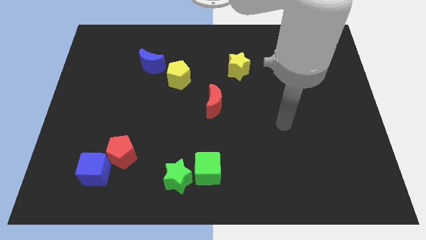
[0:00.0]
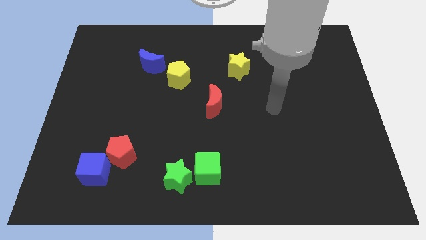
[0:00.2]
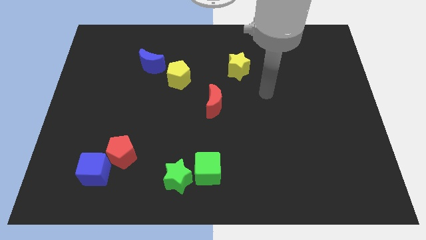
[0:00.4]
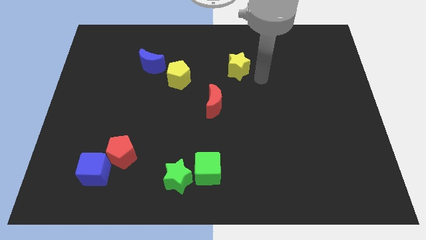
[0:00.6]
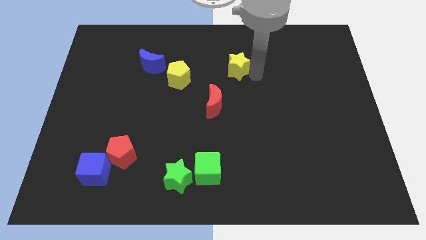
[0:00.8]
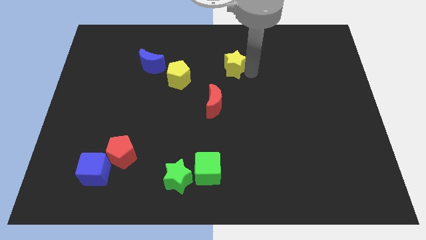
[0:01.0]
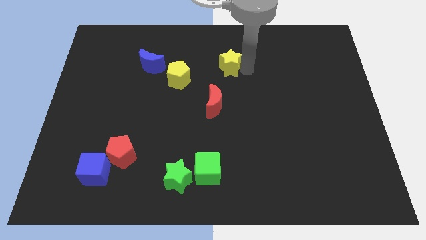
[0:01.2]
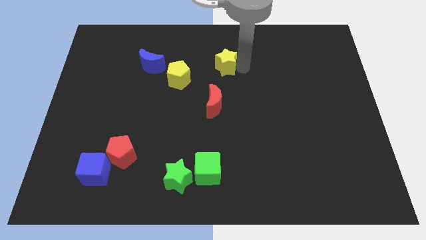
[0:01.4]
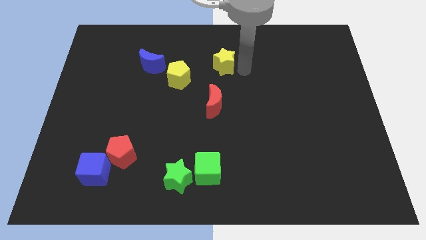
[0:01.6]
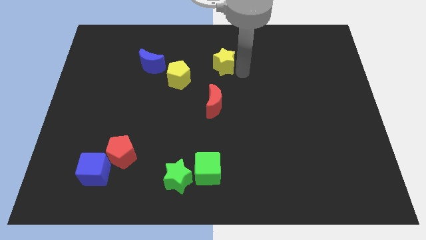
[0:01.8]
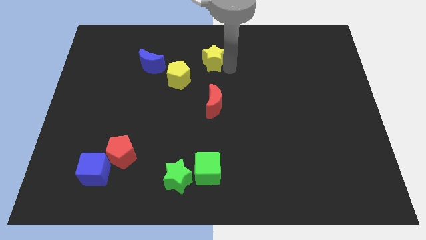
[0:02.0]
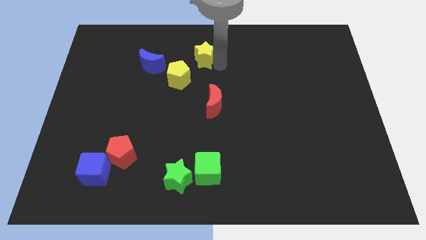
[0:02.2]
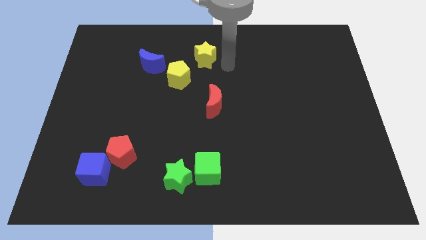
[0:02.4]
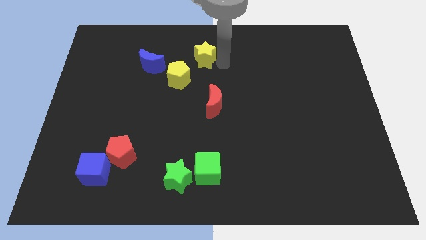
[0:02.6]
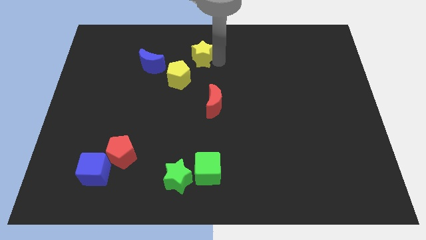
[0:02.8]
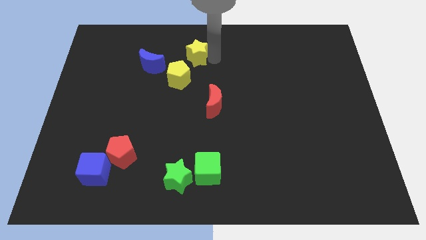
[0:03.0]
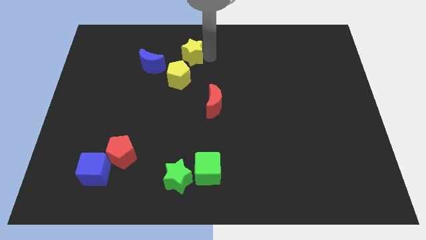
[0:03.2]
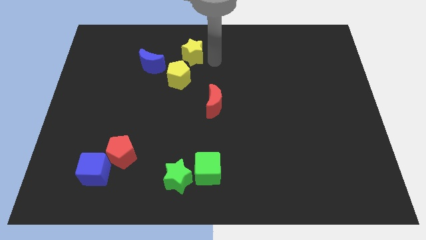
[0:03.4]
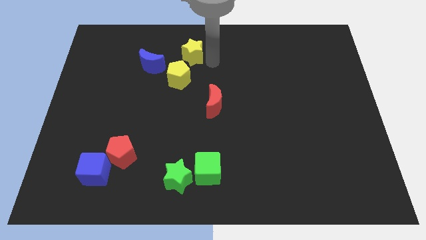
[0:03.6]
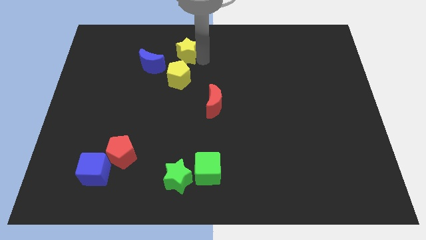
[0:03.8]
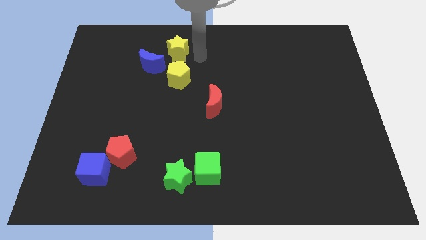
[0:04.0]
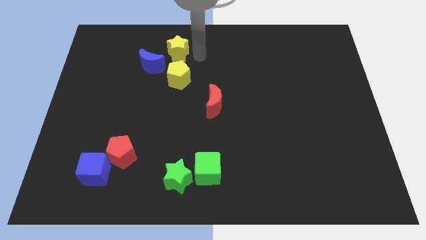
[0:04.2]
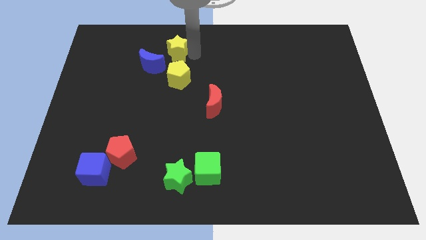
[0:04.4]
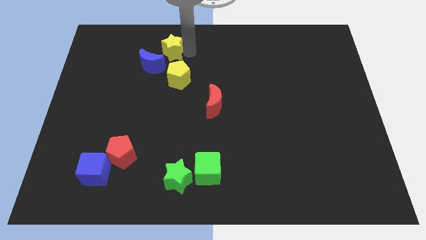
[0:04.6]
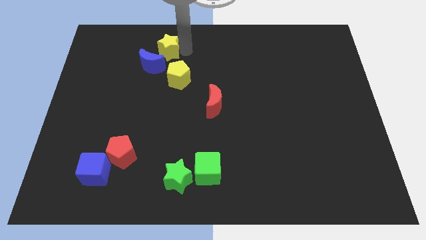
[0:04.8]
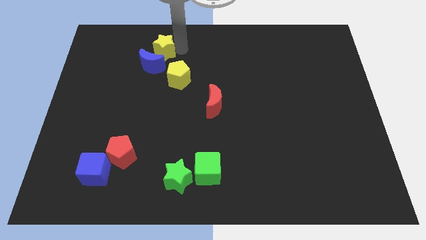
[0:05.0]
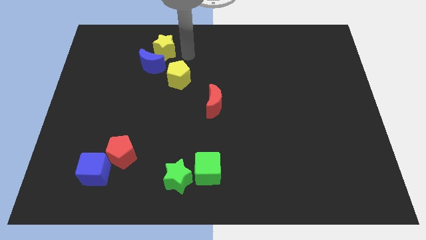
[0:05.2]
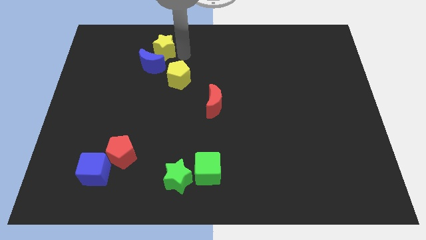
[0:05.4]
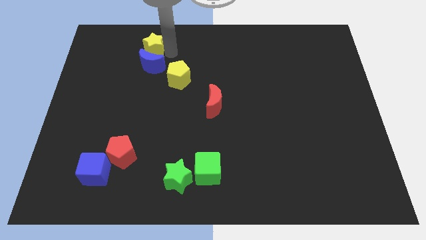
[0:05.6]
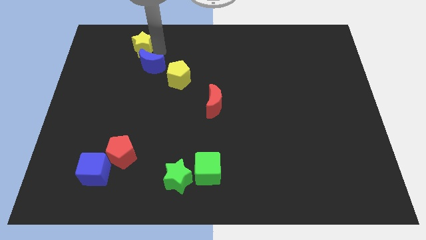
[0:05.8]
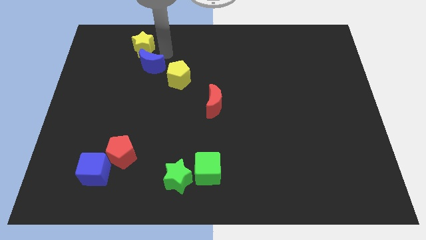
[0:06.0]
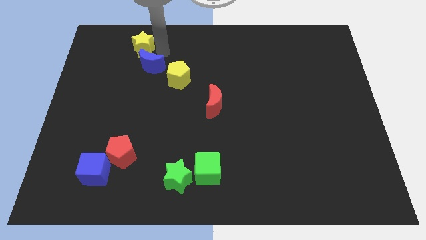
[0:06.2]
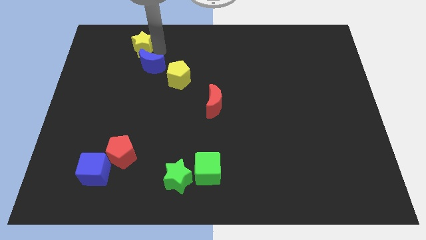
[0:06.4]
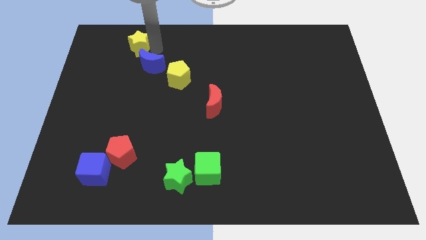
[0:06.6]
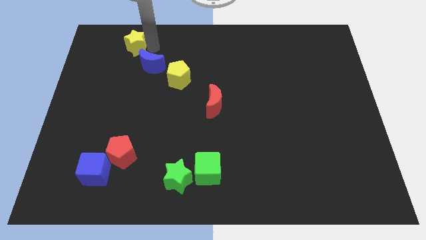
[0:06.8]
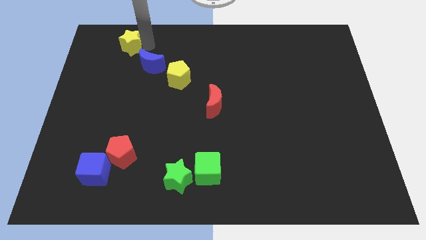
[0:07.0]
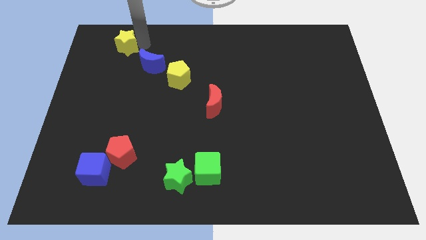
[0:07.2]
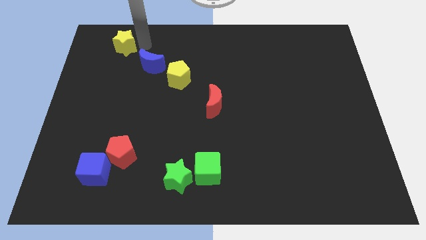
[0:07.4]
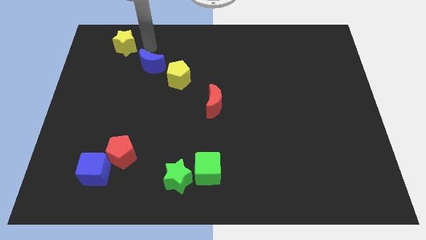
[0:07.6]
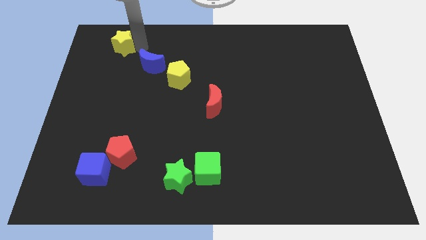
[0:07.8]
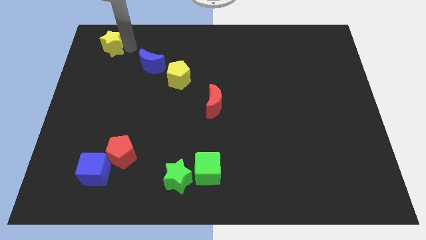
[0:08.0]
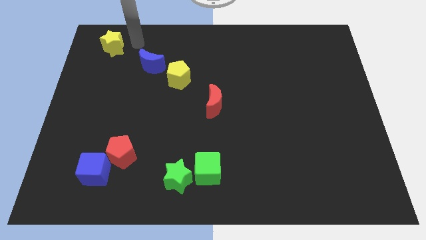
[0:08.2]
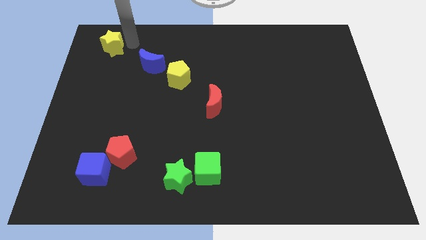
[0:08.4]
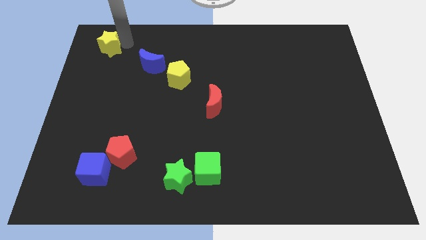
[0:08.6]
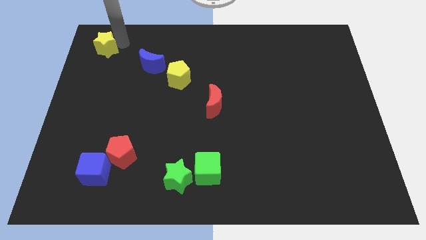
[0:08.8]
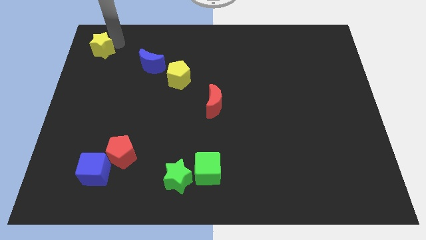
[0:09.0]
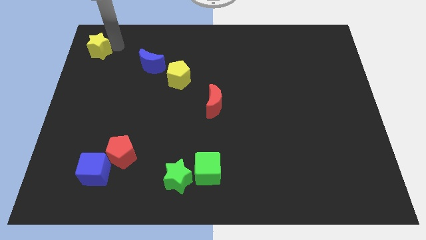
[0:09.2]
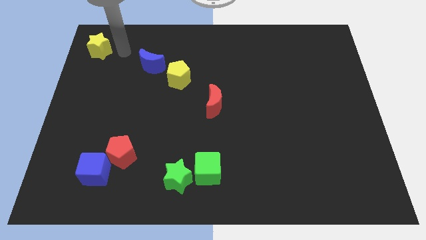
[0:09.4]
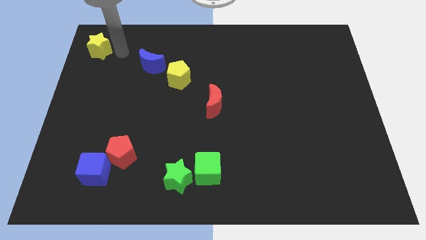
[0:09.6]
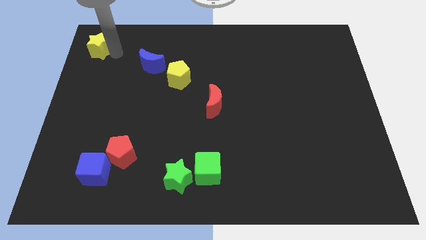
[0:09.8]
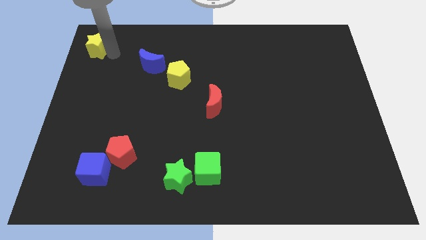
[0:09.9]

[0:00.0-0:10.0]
push the yellow star to the top left corner

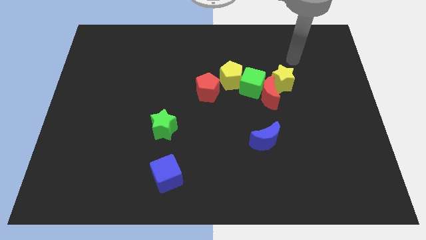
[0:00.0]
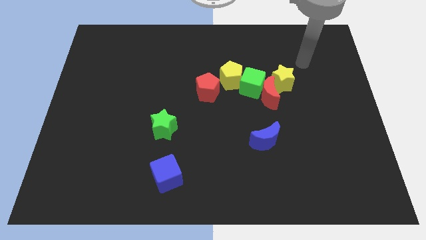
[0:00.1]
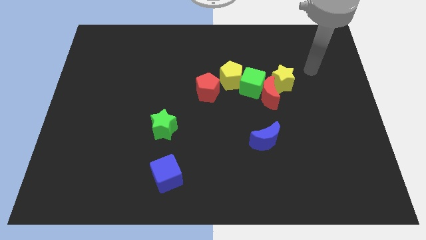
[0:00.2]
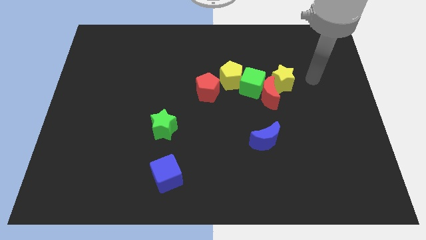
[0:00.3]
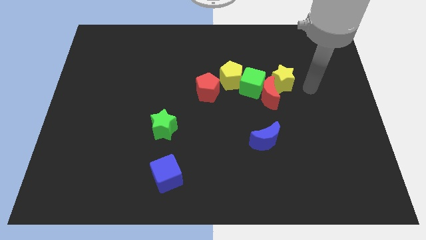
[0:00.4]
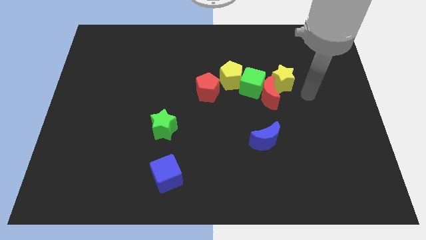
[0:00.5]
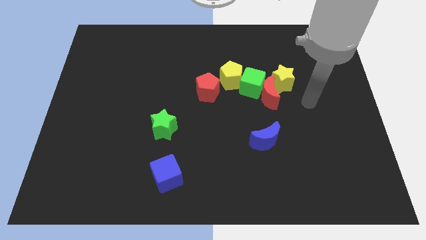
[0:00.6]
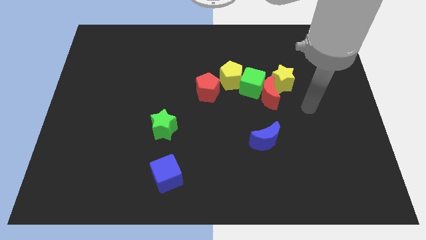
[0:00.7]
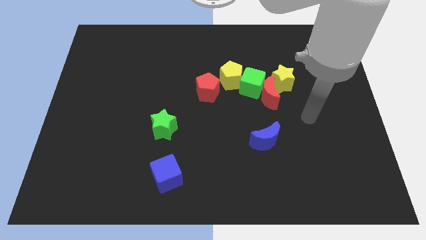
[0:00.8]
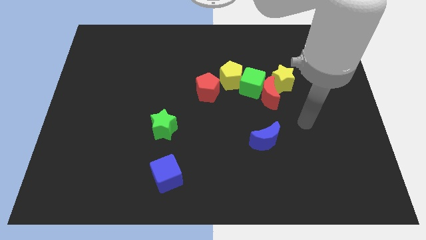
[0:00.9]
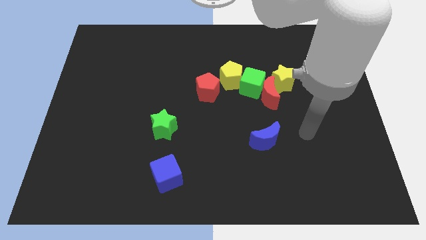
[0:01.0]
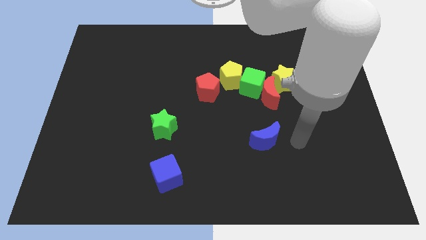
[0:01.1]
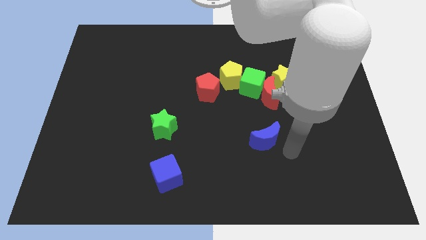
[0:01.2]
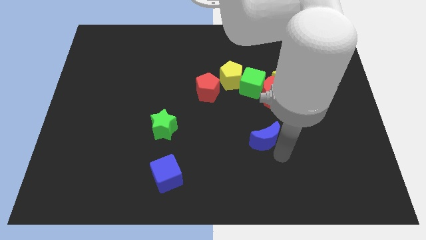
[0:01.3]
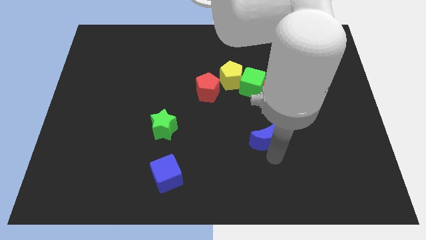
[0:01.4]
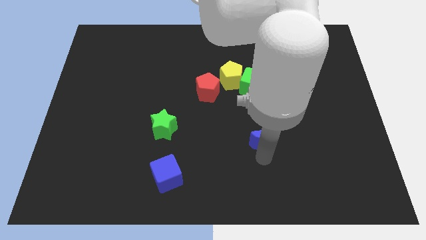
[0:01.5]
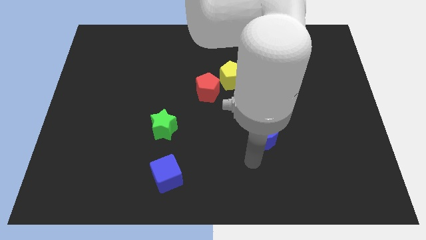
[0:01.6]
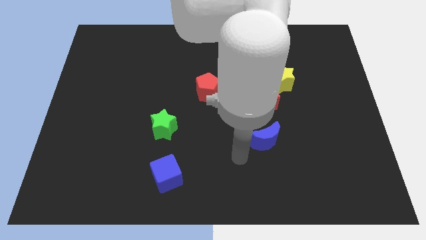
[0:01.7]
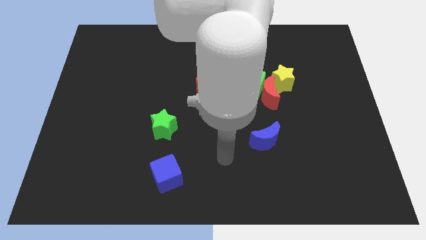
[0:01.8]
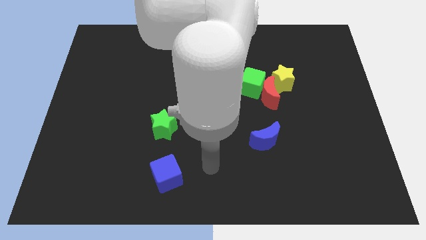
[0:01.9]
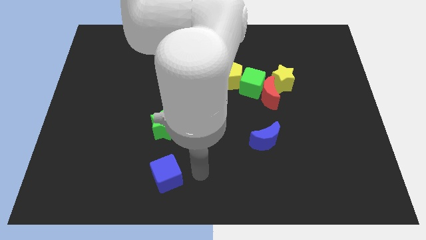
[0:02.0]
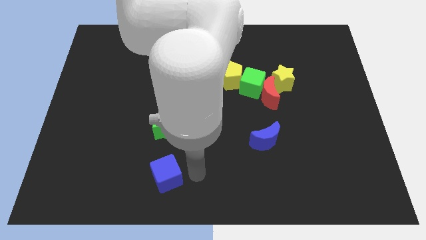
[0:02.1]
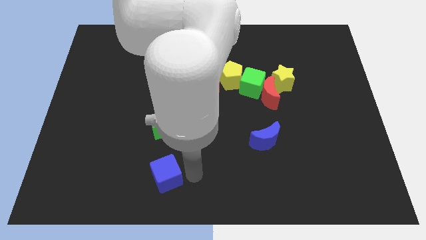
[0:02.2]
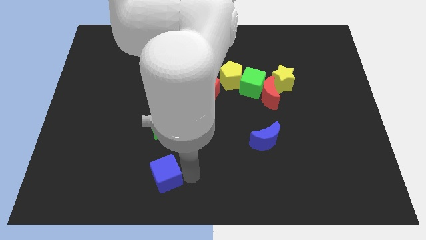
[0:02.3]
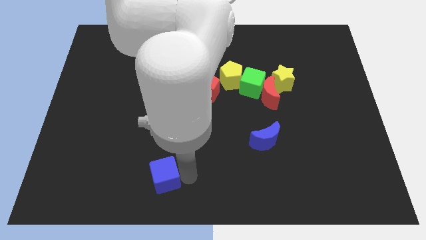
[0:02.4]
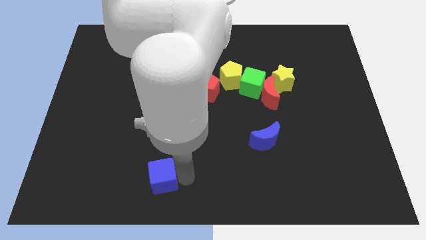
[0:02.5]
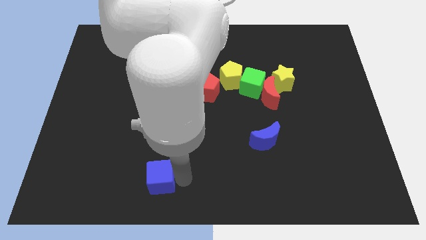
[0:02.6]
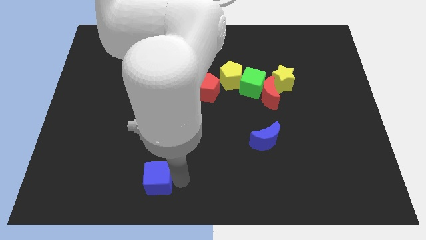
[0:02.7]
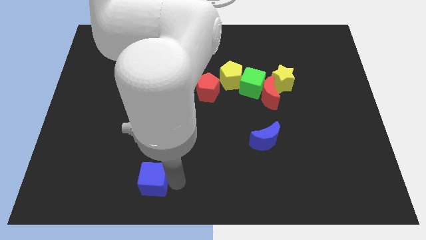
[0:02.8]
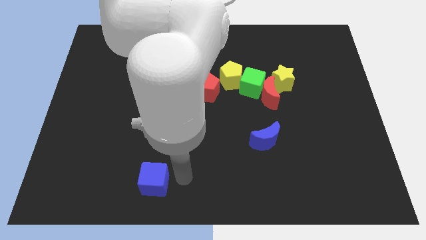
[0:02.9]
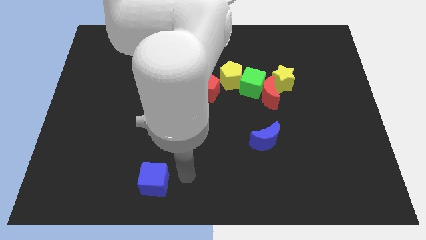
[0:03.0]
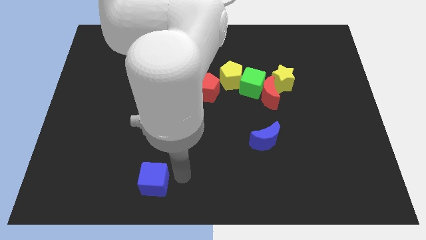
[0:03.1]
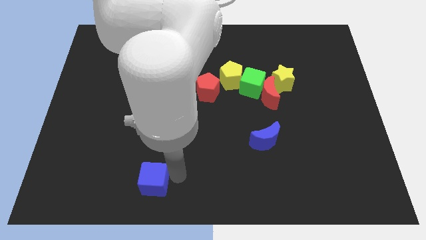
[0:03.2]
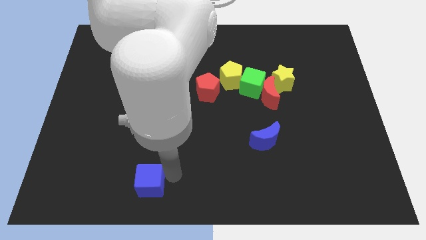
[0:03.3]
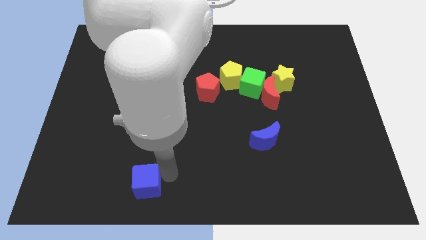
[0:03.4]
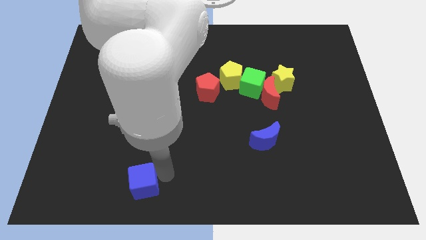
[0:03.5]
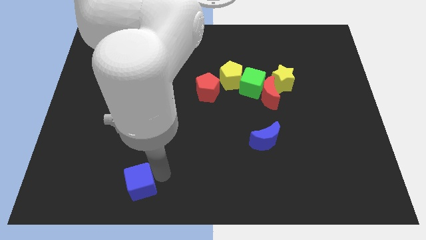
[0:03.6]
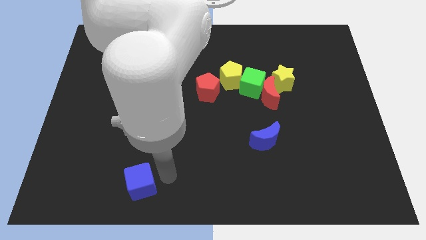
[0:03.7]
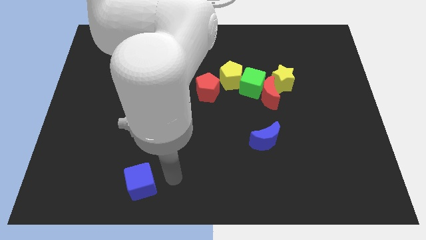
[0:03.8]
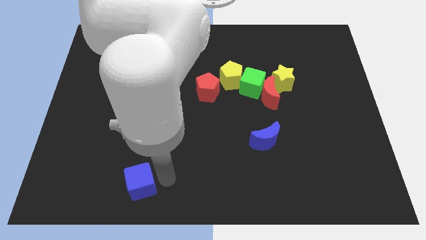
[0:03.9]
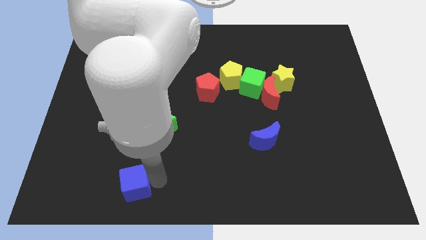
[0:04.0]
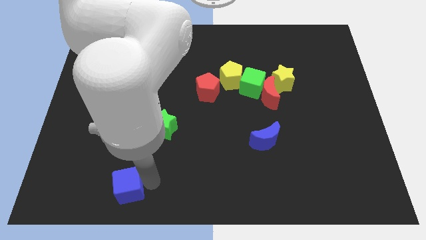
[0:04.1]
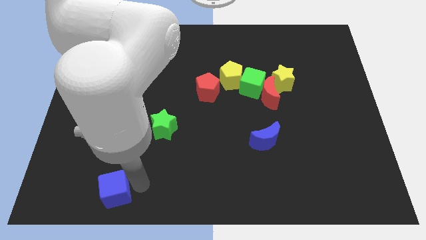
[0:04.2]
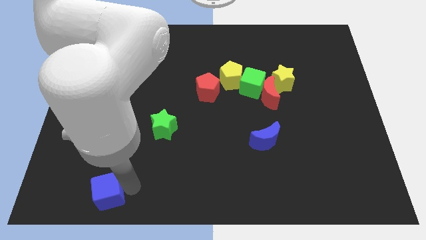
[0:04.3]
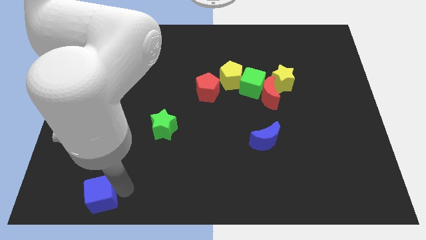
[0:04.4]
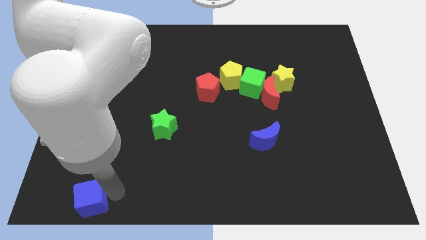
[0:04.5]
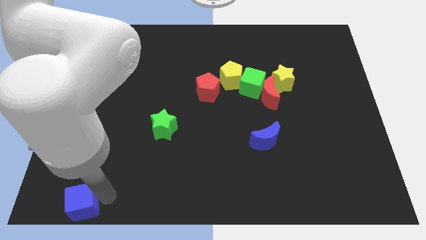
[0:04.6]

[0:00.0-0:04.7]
put the blue cube to the bottom left
